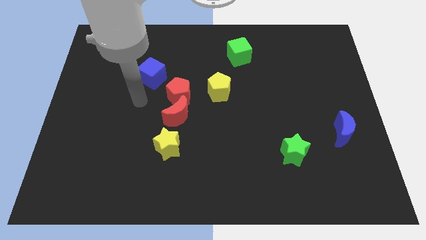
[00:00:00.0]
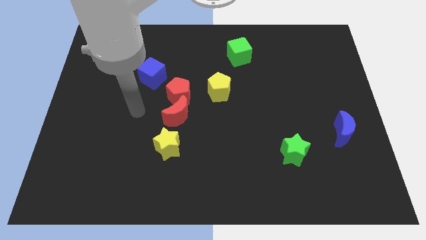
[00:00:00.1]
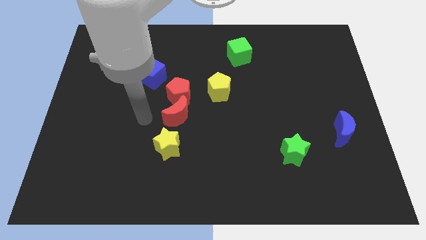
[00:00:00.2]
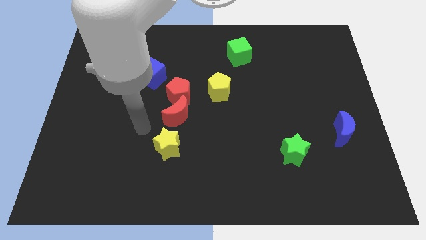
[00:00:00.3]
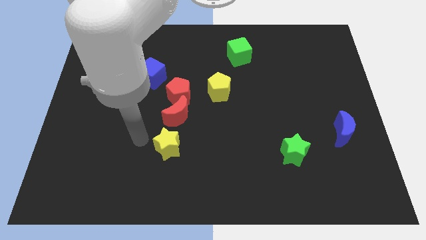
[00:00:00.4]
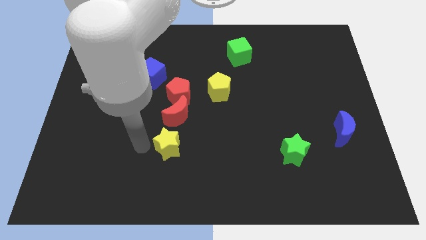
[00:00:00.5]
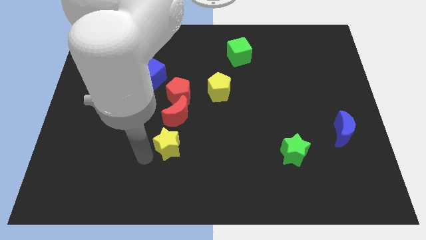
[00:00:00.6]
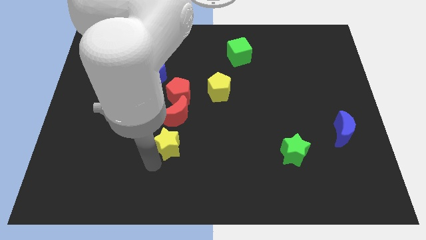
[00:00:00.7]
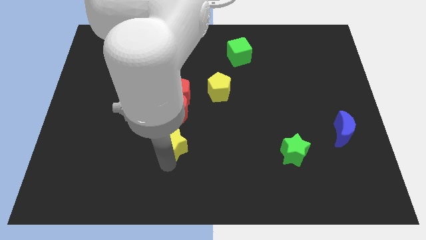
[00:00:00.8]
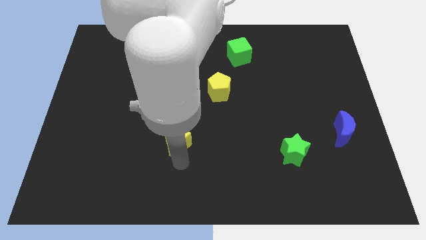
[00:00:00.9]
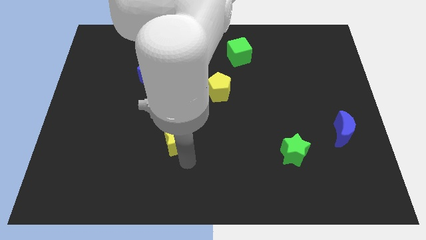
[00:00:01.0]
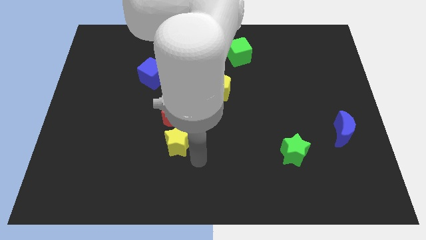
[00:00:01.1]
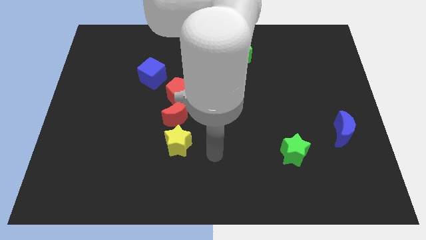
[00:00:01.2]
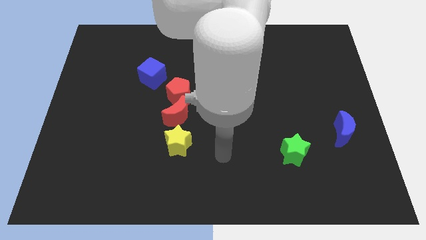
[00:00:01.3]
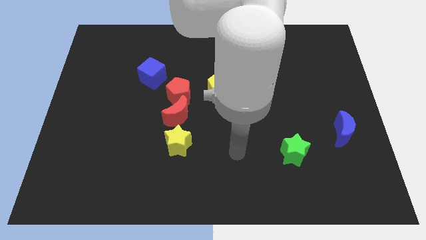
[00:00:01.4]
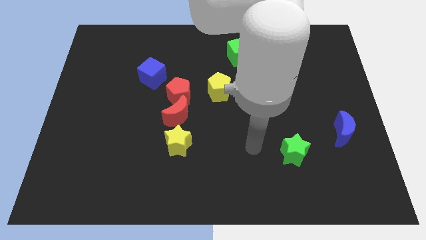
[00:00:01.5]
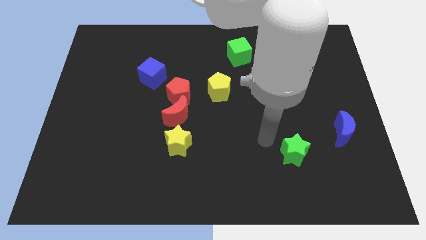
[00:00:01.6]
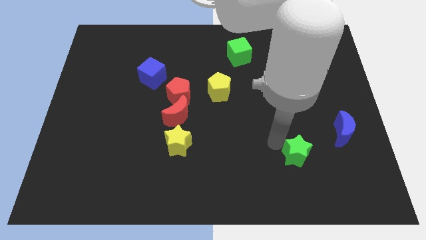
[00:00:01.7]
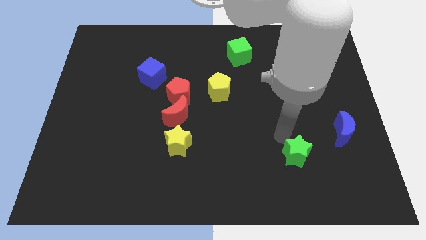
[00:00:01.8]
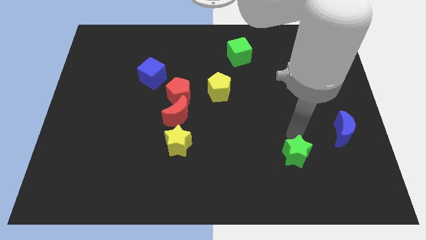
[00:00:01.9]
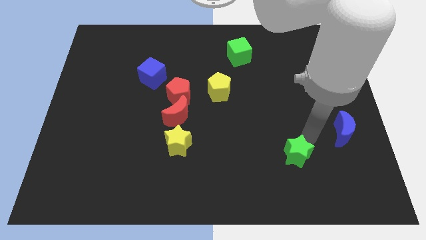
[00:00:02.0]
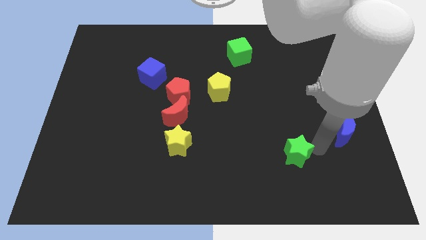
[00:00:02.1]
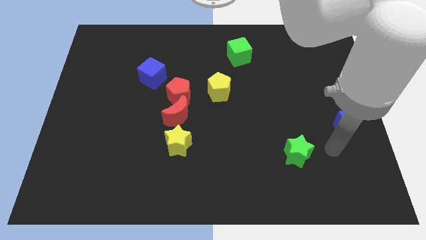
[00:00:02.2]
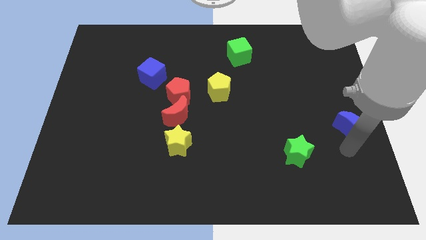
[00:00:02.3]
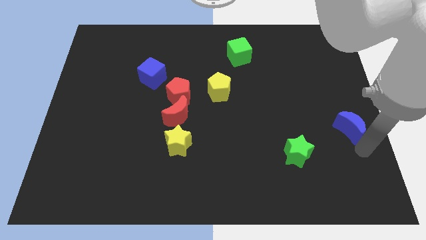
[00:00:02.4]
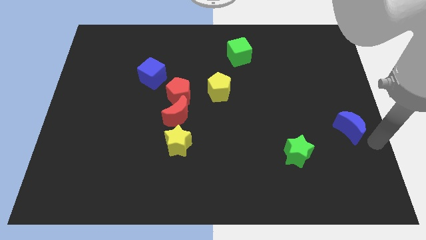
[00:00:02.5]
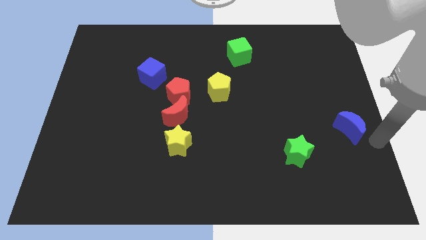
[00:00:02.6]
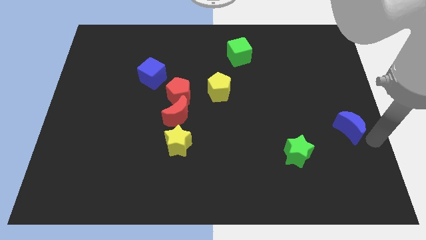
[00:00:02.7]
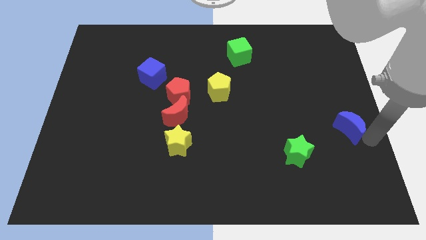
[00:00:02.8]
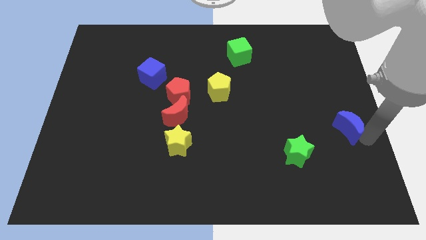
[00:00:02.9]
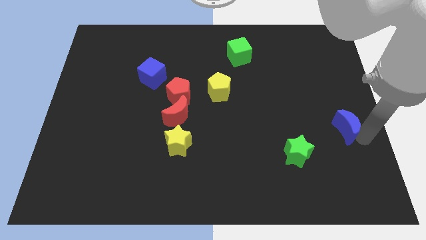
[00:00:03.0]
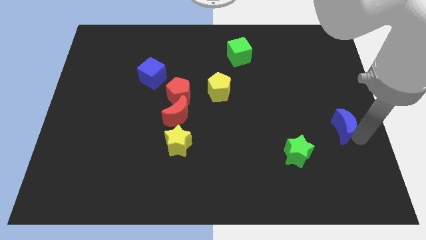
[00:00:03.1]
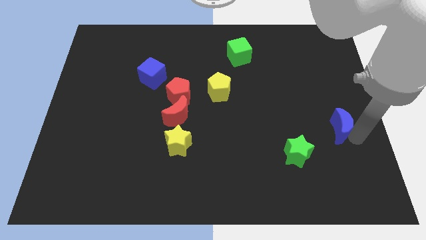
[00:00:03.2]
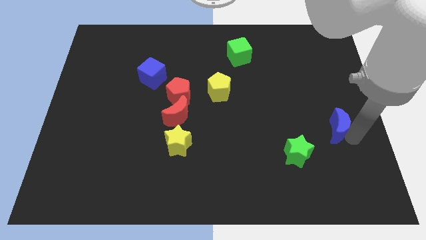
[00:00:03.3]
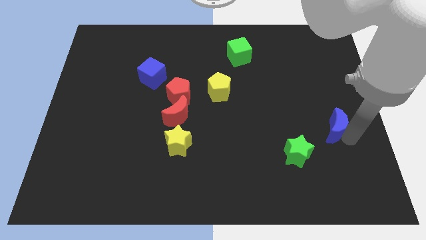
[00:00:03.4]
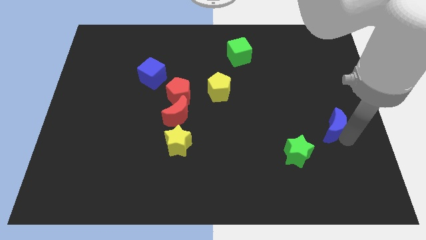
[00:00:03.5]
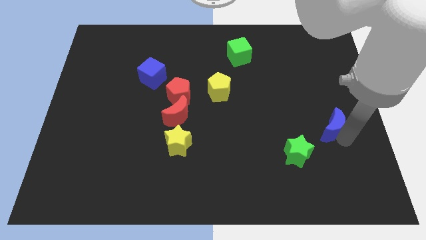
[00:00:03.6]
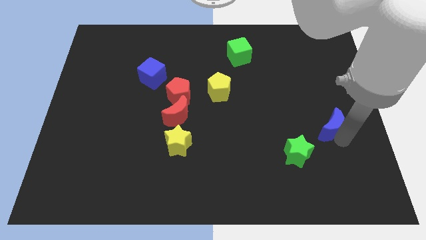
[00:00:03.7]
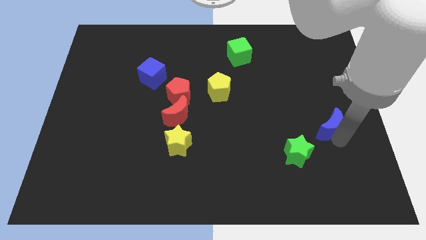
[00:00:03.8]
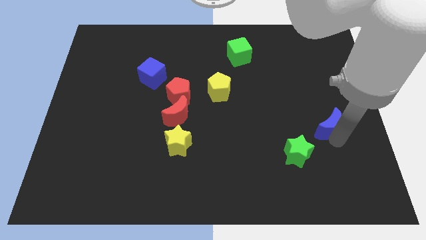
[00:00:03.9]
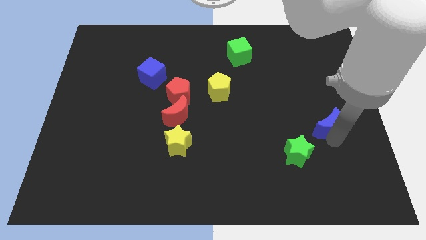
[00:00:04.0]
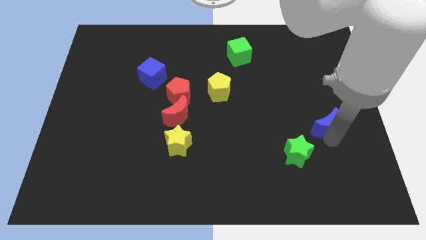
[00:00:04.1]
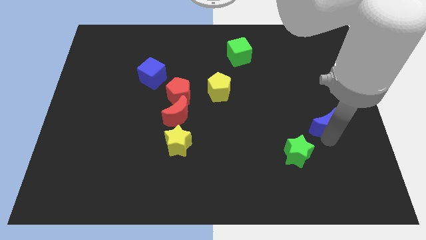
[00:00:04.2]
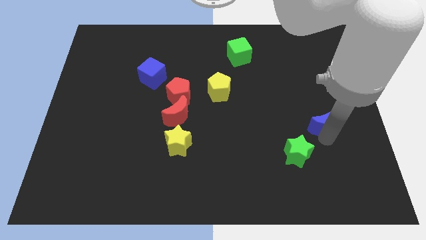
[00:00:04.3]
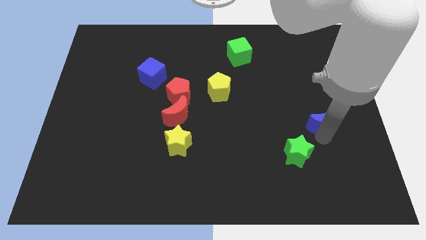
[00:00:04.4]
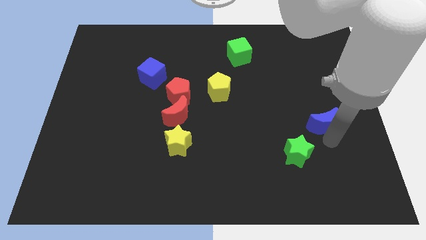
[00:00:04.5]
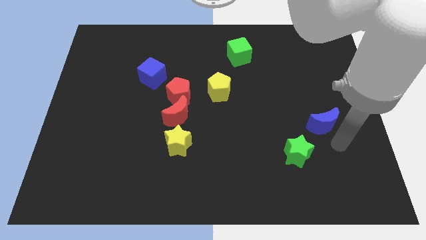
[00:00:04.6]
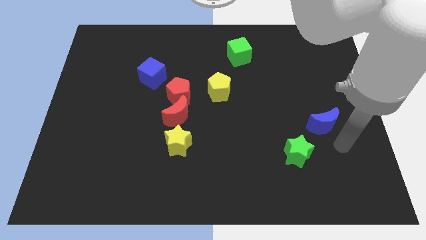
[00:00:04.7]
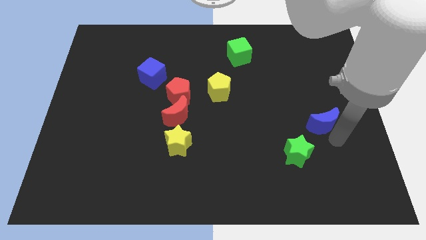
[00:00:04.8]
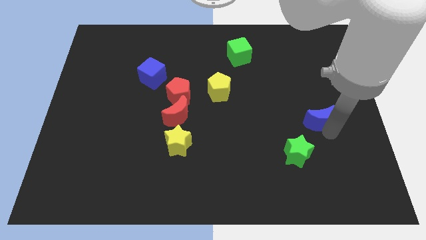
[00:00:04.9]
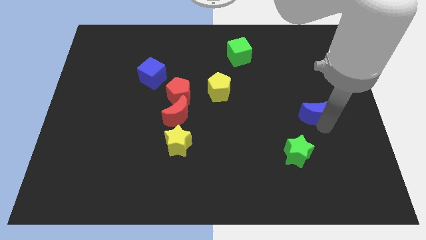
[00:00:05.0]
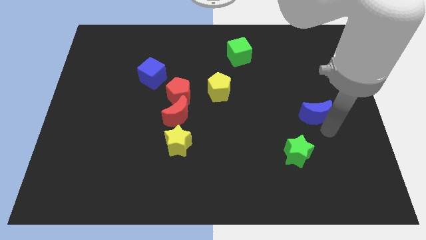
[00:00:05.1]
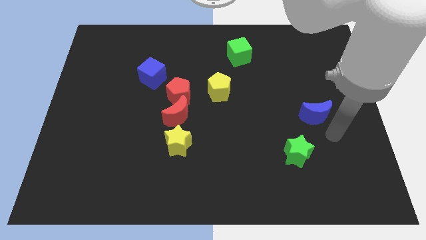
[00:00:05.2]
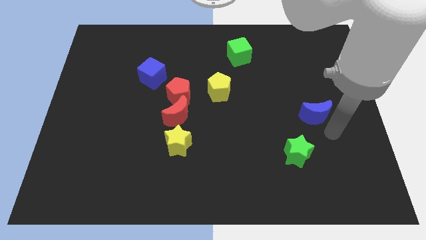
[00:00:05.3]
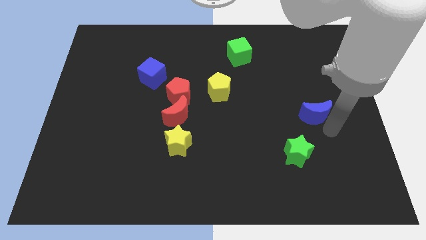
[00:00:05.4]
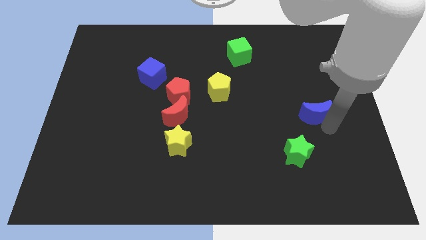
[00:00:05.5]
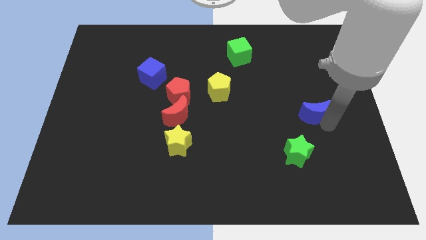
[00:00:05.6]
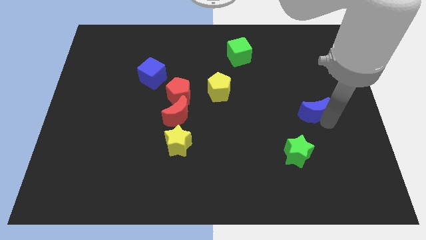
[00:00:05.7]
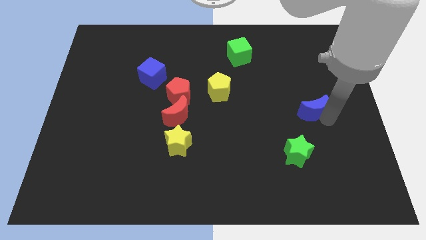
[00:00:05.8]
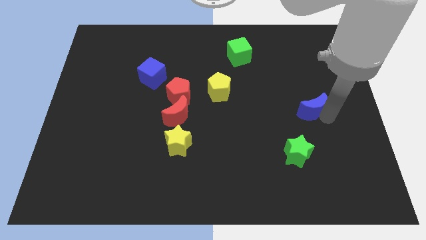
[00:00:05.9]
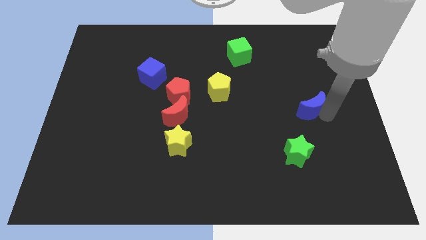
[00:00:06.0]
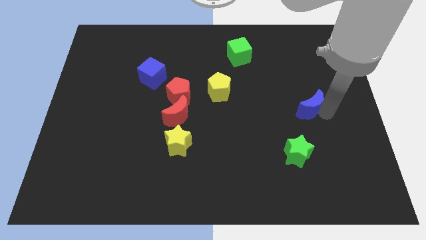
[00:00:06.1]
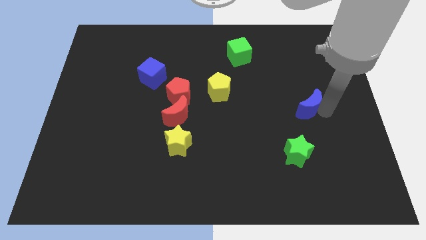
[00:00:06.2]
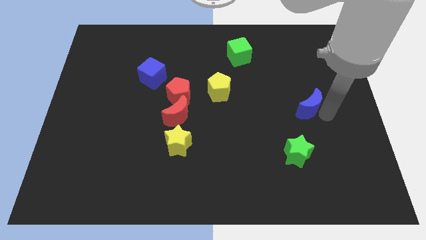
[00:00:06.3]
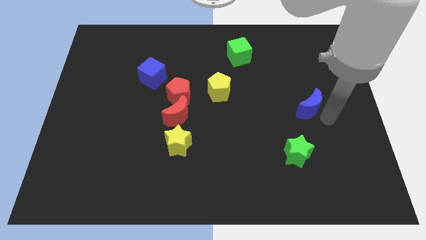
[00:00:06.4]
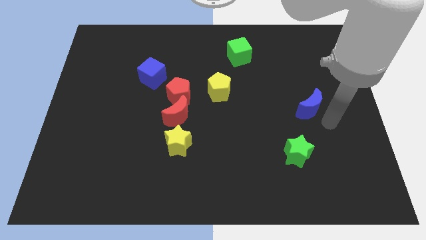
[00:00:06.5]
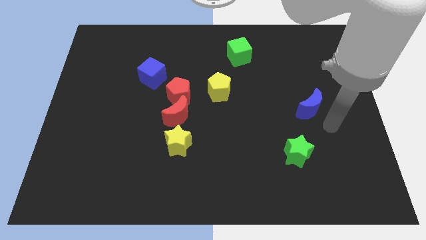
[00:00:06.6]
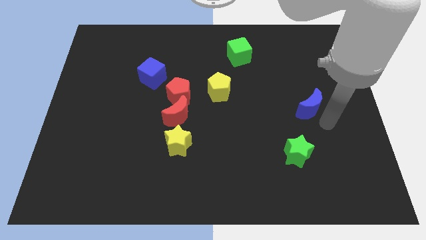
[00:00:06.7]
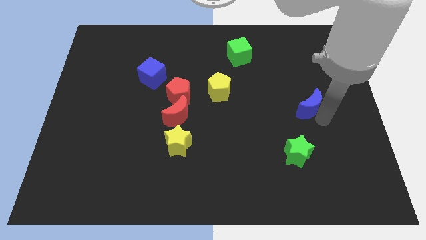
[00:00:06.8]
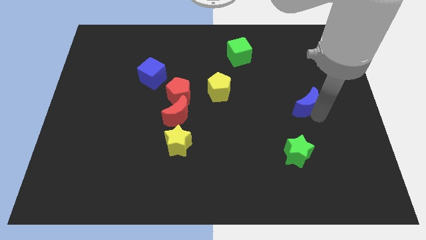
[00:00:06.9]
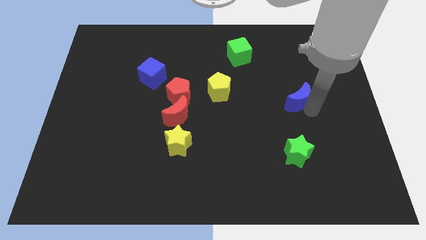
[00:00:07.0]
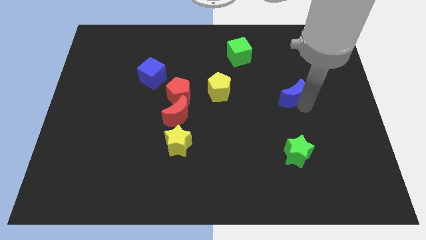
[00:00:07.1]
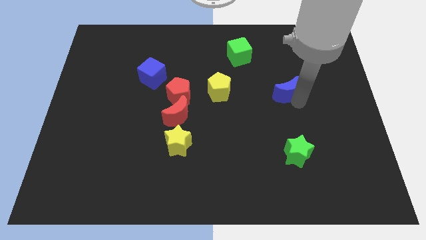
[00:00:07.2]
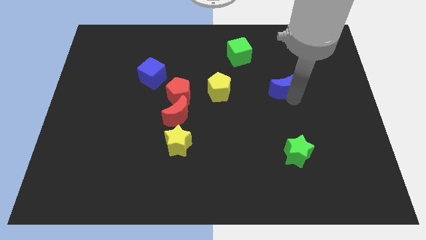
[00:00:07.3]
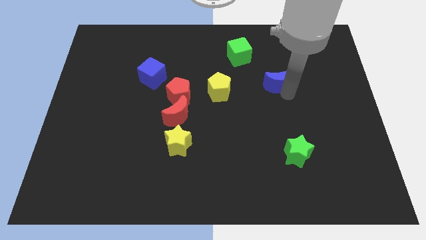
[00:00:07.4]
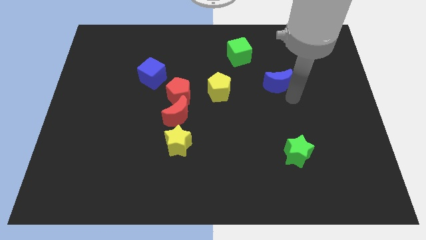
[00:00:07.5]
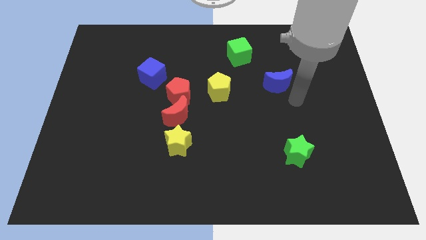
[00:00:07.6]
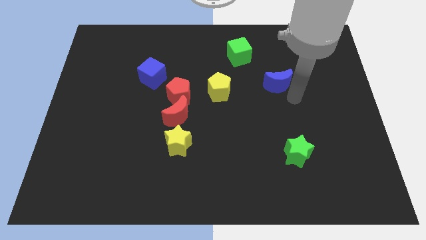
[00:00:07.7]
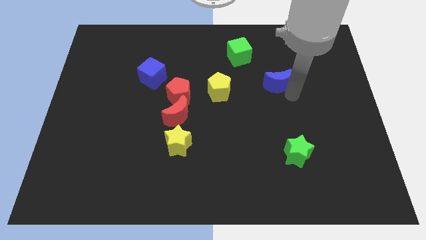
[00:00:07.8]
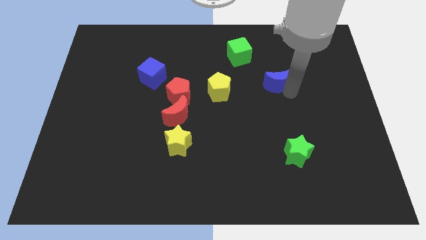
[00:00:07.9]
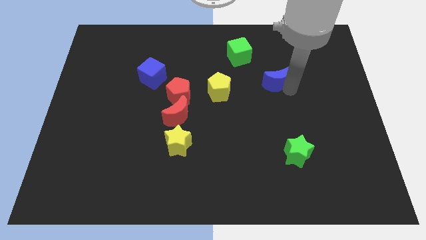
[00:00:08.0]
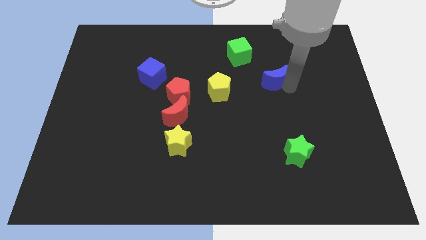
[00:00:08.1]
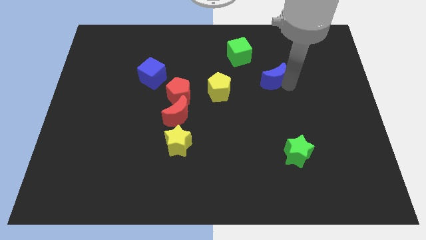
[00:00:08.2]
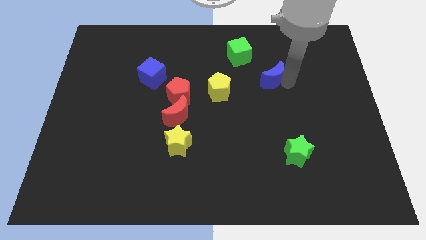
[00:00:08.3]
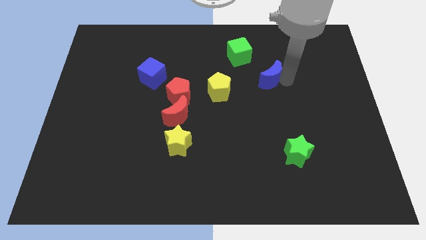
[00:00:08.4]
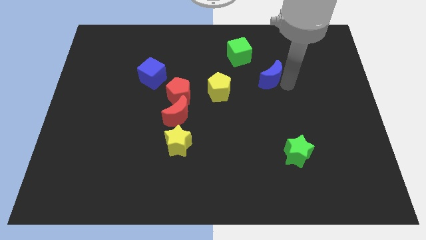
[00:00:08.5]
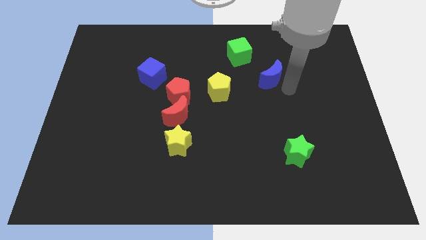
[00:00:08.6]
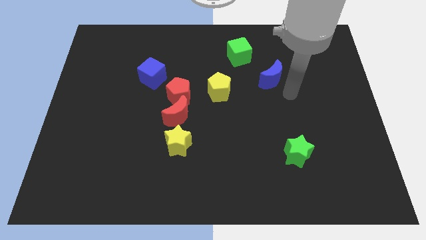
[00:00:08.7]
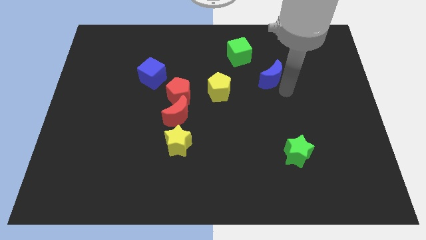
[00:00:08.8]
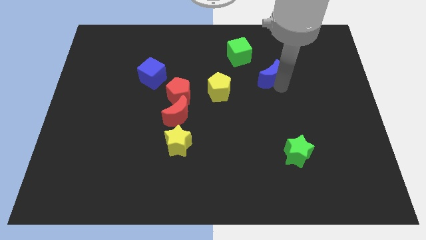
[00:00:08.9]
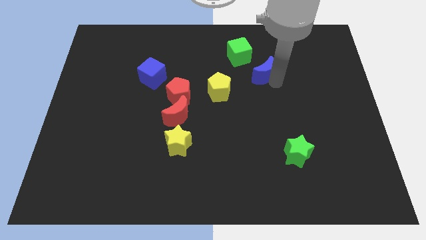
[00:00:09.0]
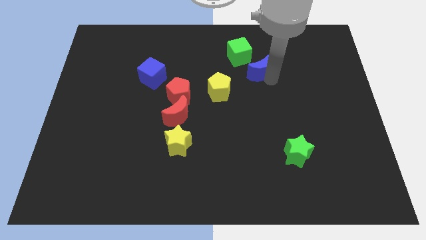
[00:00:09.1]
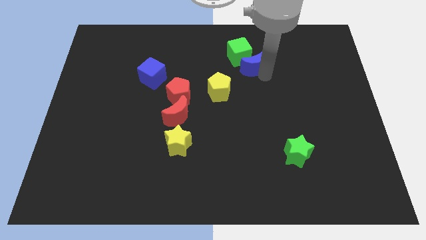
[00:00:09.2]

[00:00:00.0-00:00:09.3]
push the blue moon close to the green cube
